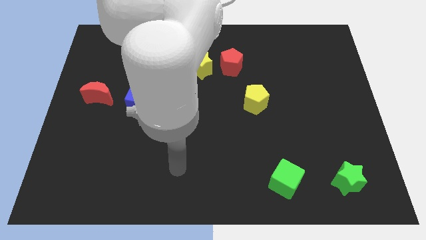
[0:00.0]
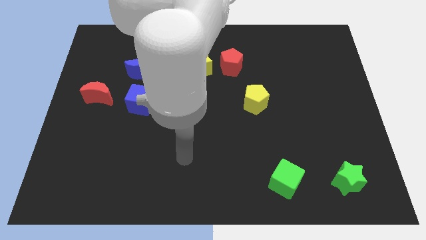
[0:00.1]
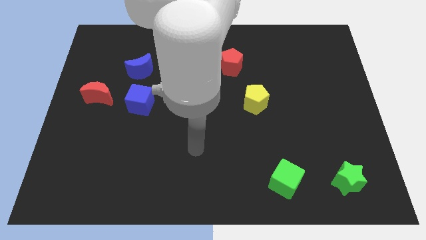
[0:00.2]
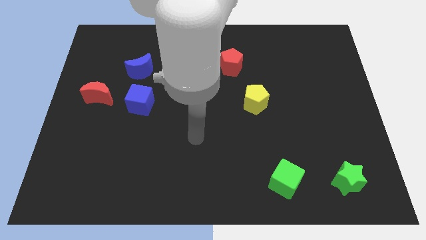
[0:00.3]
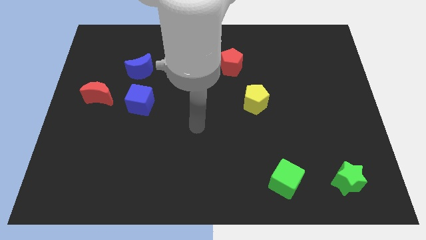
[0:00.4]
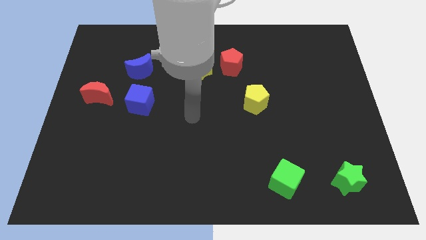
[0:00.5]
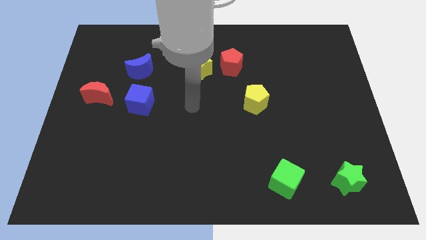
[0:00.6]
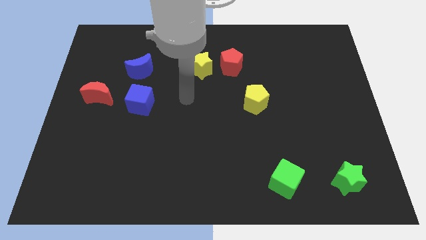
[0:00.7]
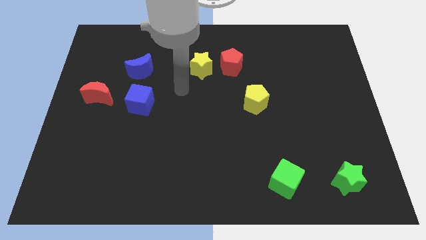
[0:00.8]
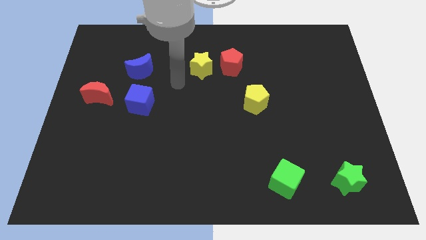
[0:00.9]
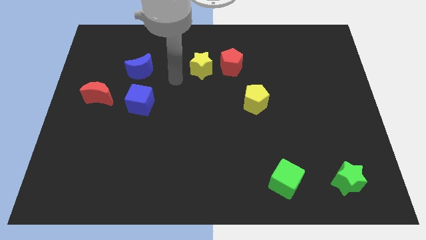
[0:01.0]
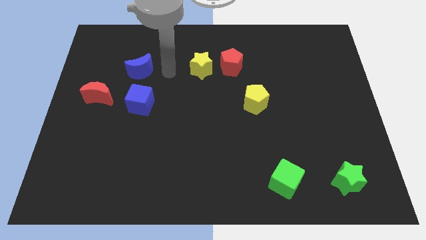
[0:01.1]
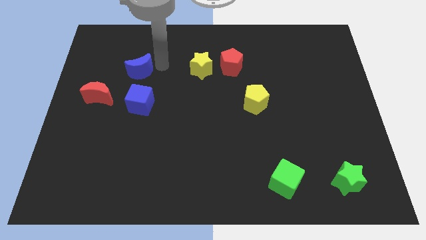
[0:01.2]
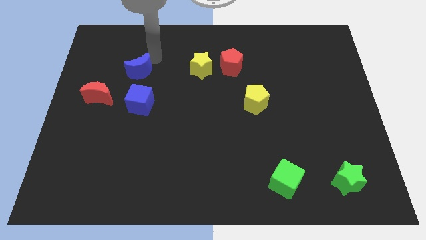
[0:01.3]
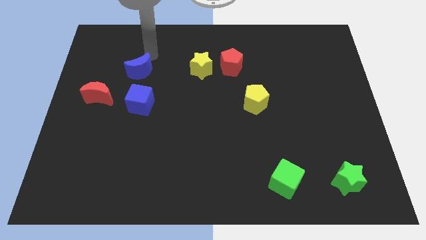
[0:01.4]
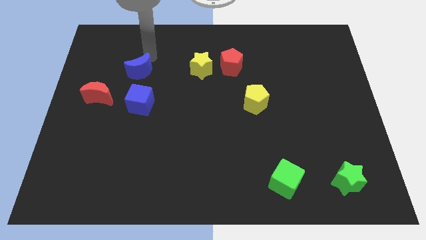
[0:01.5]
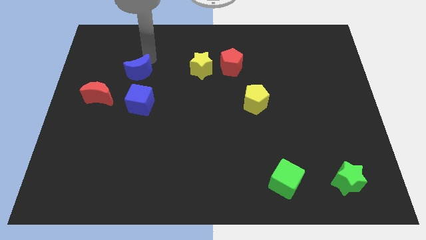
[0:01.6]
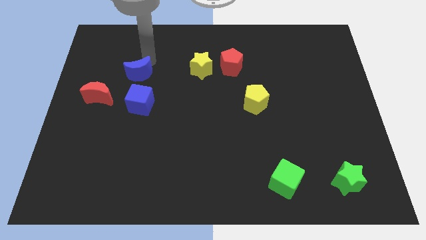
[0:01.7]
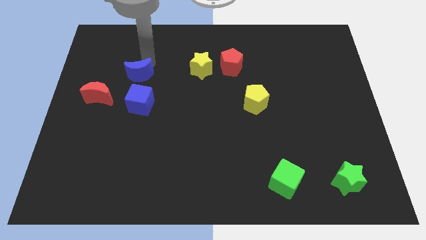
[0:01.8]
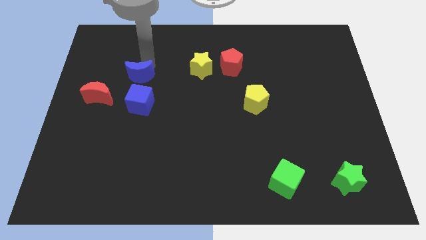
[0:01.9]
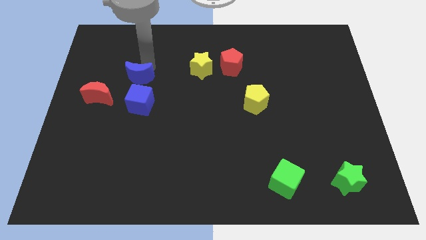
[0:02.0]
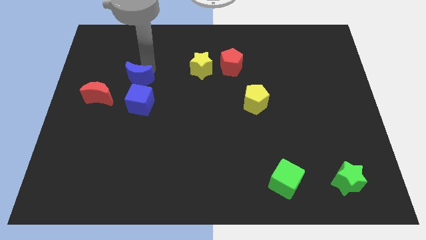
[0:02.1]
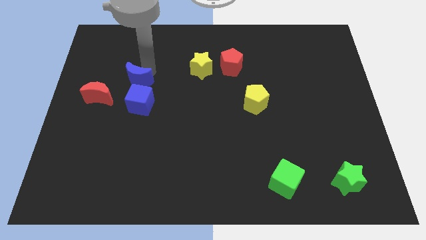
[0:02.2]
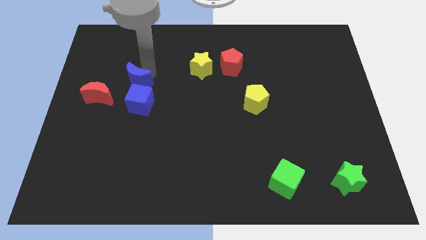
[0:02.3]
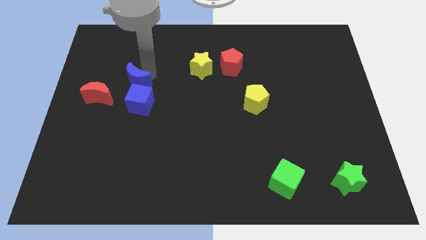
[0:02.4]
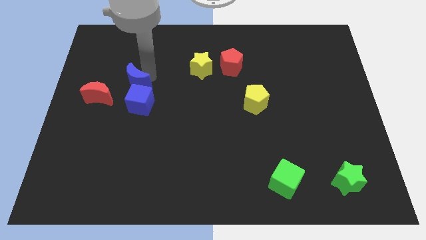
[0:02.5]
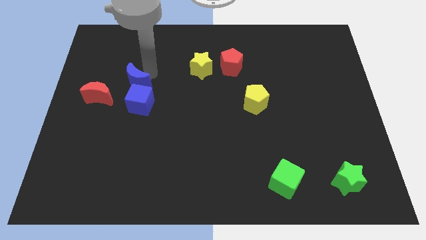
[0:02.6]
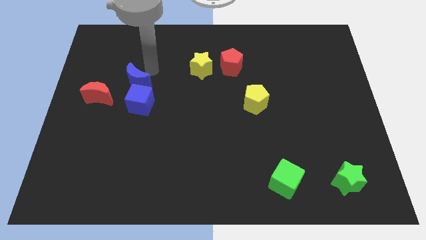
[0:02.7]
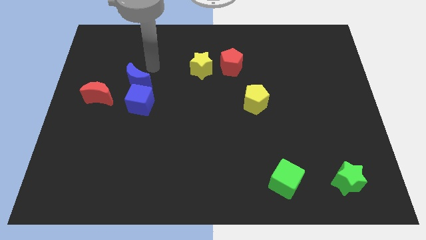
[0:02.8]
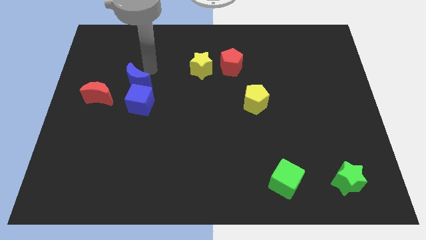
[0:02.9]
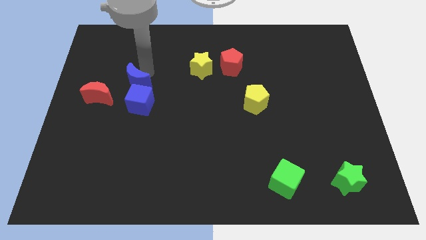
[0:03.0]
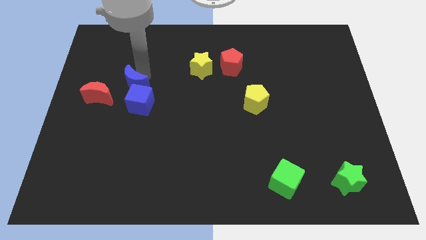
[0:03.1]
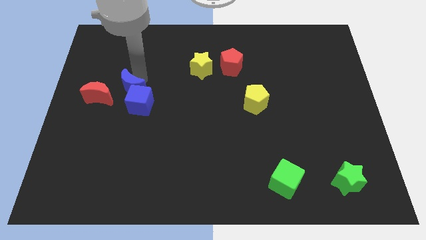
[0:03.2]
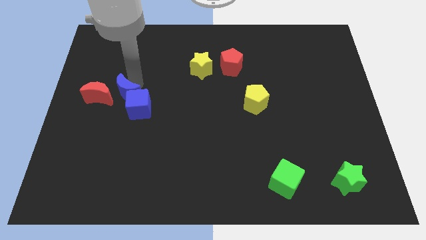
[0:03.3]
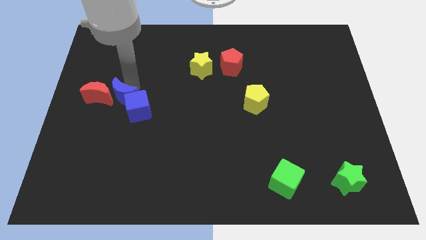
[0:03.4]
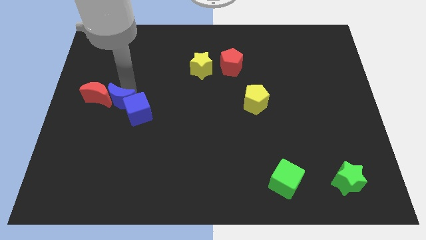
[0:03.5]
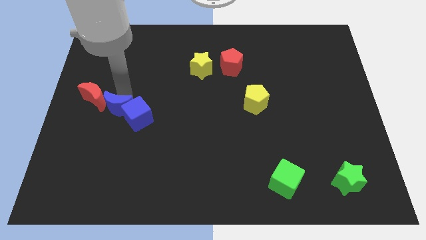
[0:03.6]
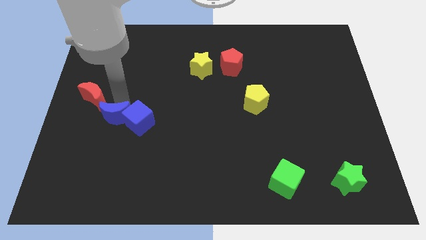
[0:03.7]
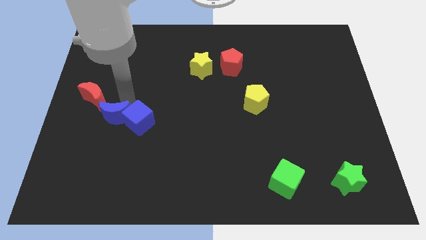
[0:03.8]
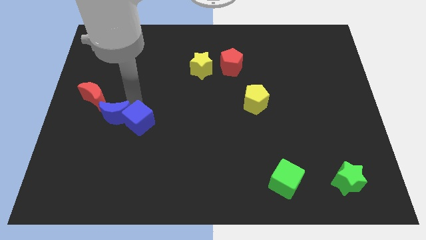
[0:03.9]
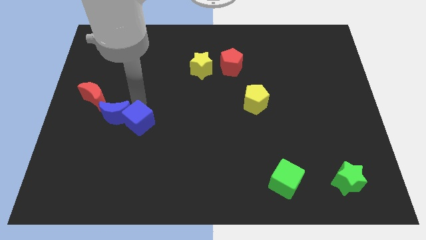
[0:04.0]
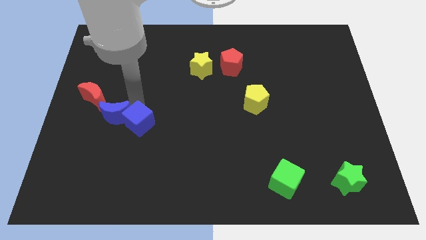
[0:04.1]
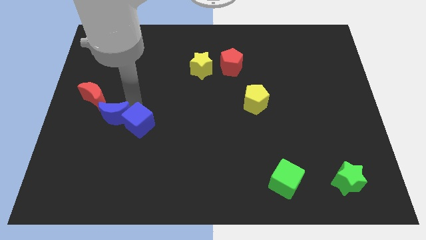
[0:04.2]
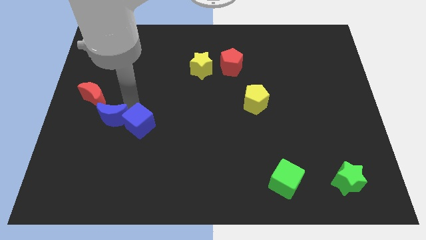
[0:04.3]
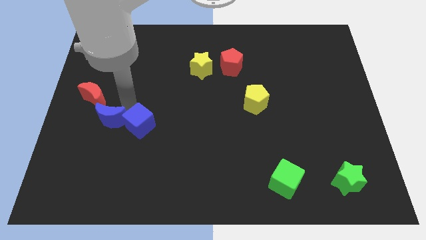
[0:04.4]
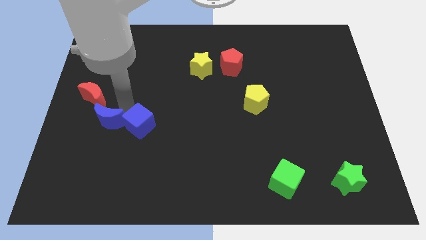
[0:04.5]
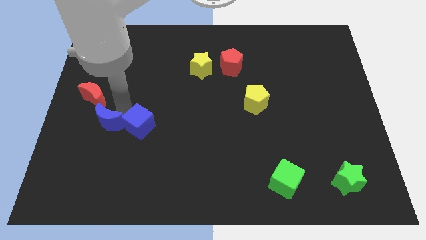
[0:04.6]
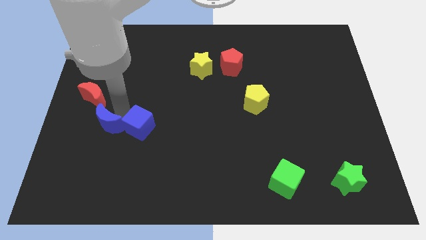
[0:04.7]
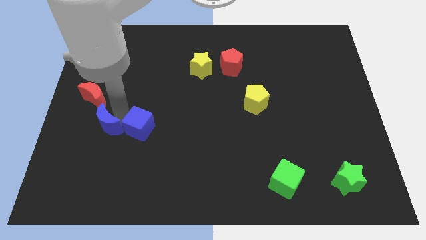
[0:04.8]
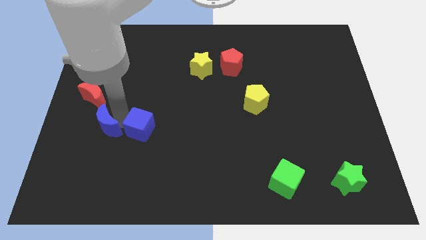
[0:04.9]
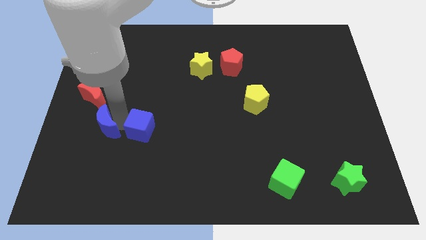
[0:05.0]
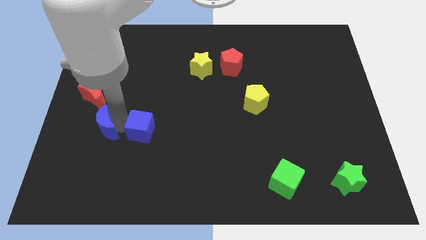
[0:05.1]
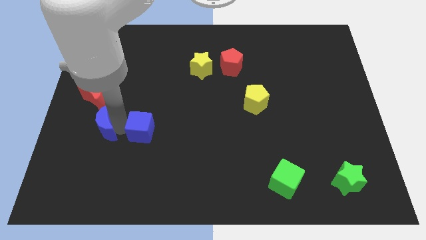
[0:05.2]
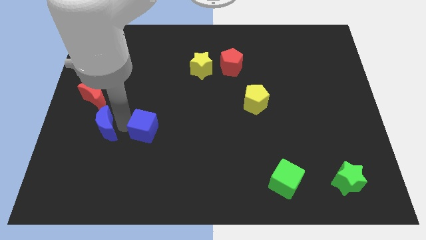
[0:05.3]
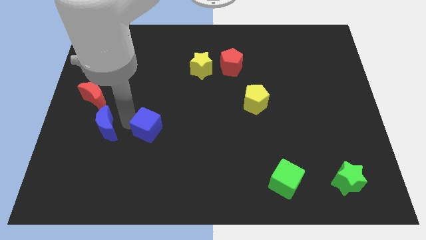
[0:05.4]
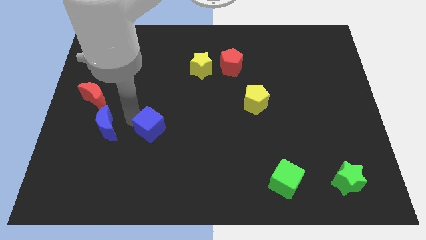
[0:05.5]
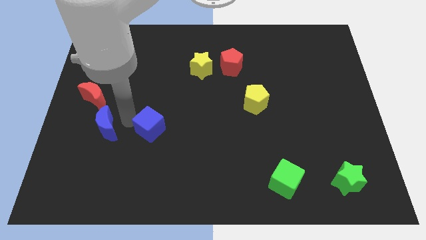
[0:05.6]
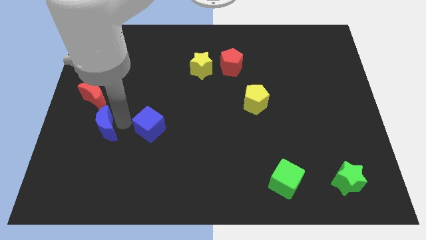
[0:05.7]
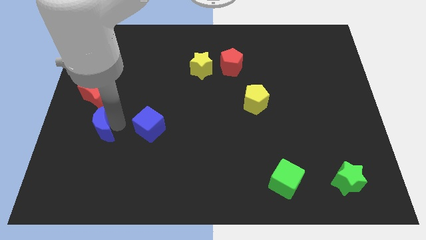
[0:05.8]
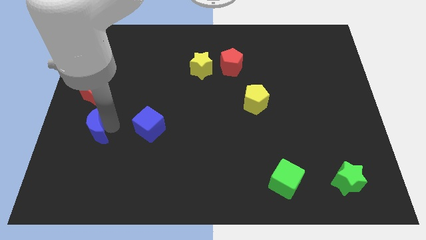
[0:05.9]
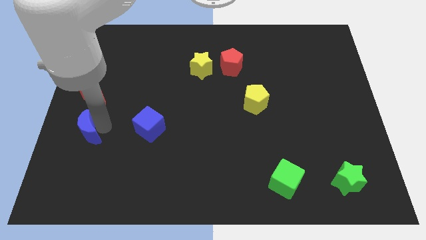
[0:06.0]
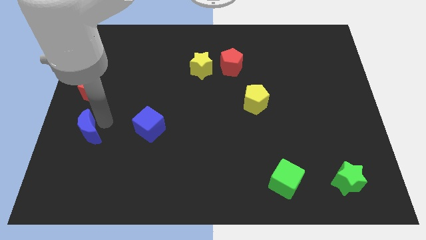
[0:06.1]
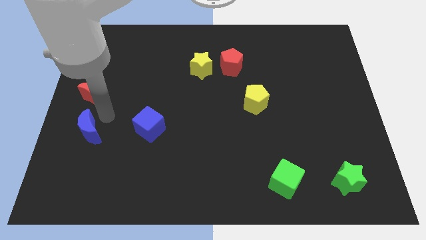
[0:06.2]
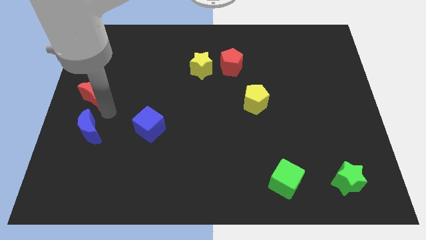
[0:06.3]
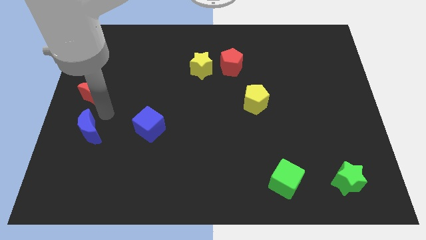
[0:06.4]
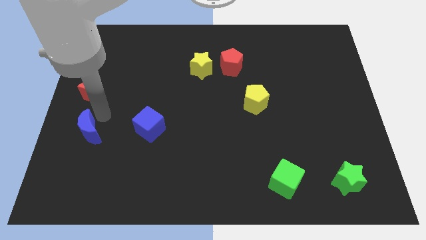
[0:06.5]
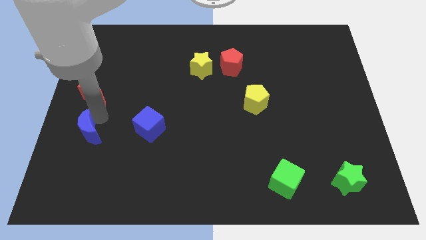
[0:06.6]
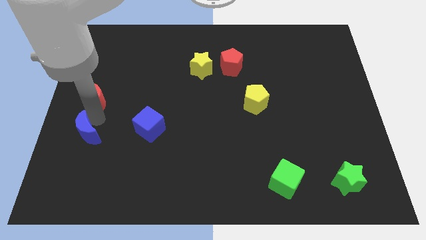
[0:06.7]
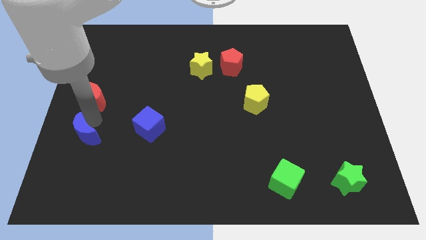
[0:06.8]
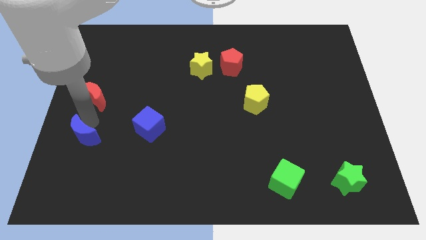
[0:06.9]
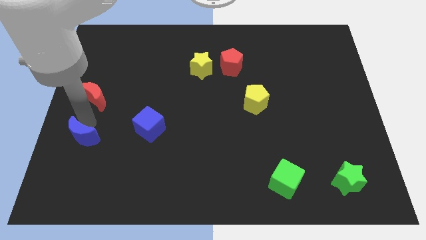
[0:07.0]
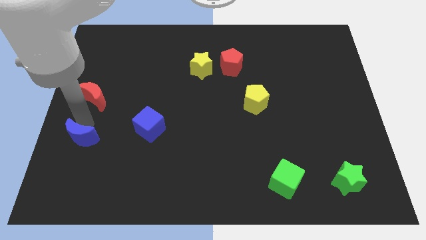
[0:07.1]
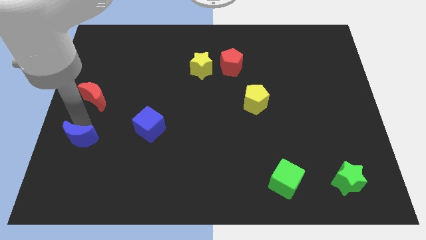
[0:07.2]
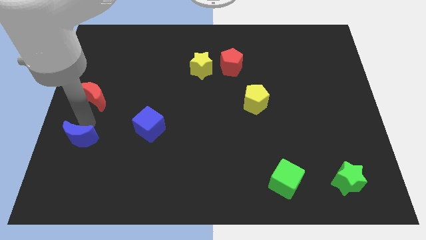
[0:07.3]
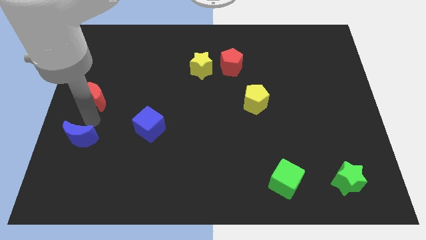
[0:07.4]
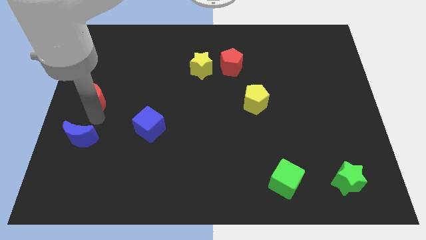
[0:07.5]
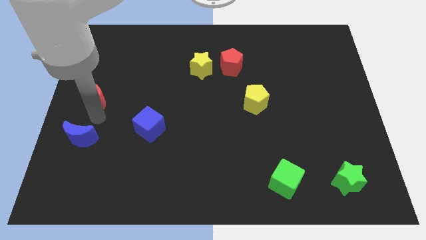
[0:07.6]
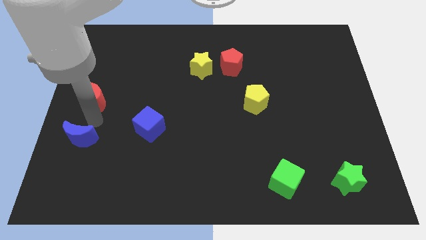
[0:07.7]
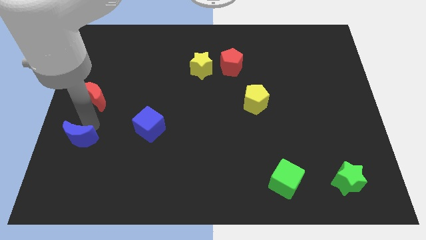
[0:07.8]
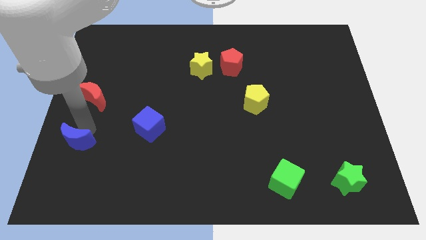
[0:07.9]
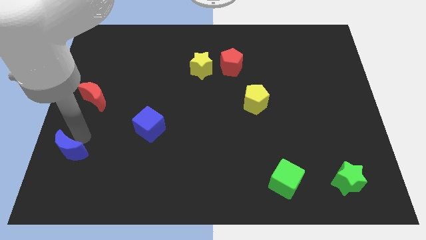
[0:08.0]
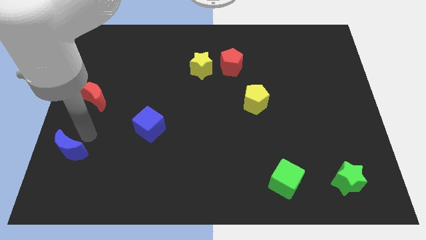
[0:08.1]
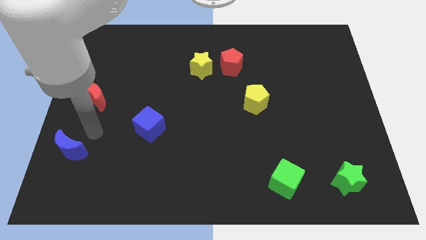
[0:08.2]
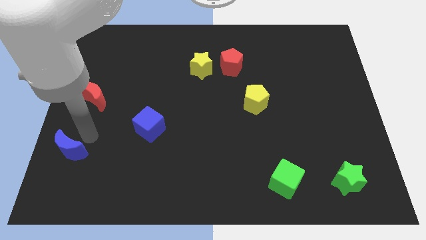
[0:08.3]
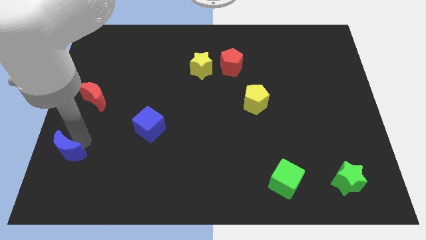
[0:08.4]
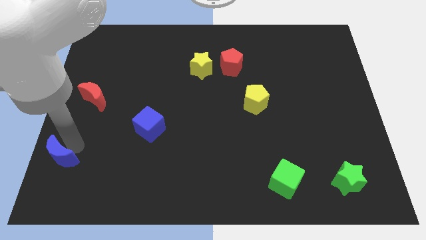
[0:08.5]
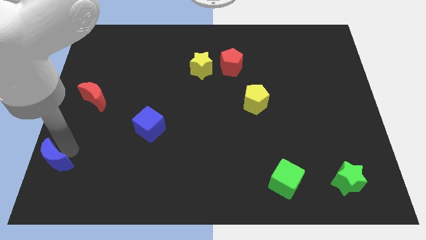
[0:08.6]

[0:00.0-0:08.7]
put the blue moon to the lower left corner
